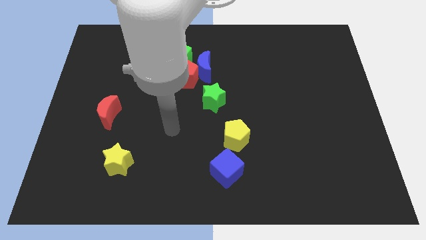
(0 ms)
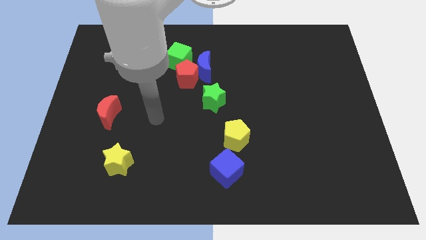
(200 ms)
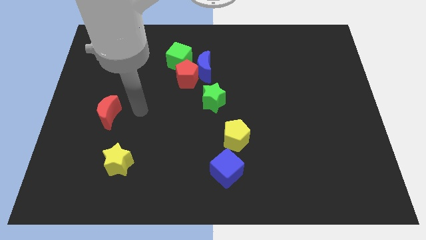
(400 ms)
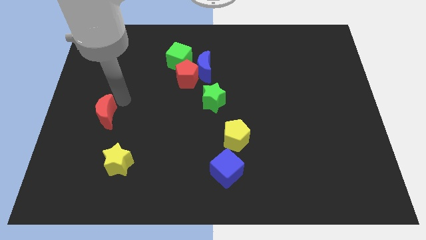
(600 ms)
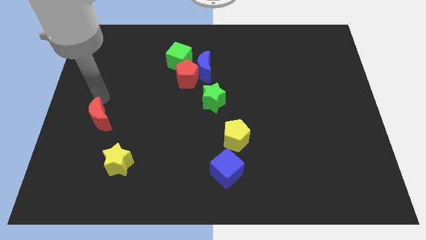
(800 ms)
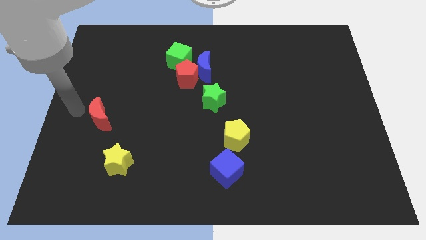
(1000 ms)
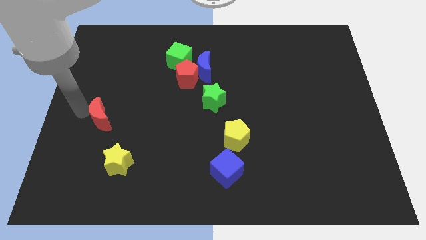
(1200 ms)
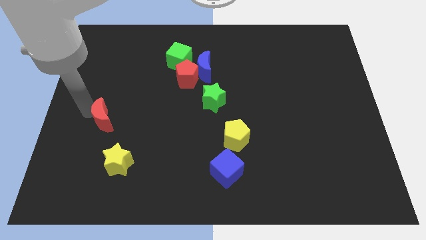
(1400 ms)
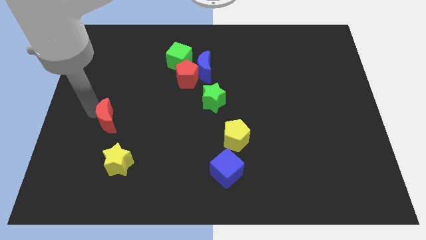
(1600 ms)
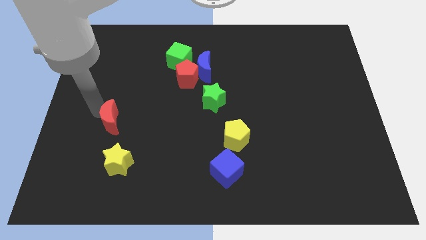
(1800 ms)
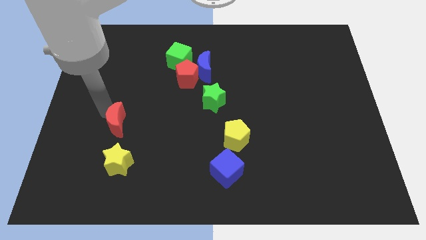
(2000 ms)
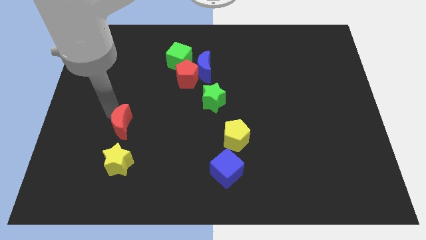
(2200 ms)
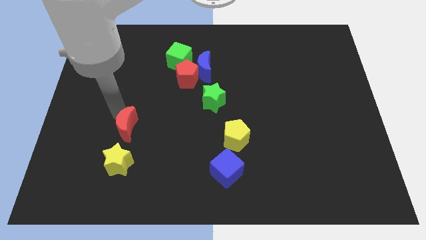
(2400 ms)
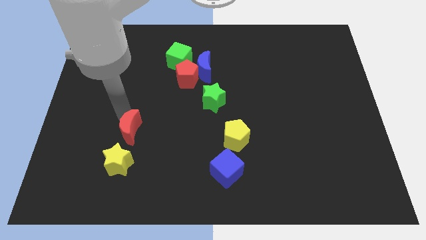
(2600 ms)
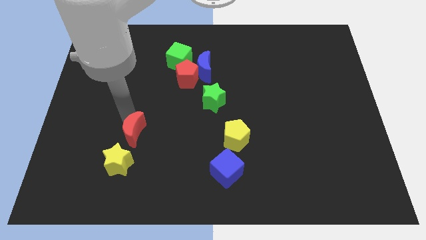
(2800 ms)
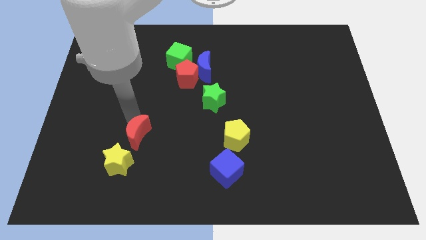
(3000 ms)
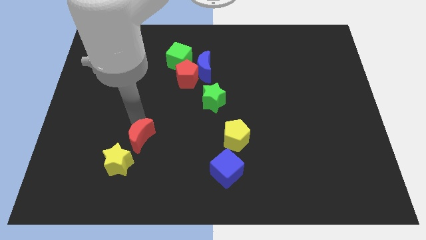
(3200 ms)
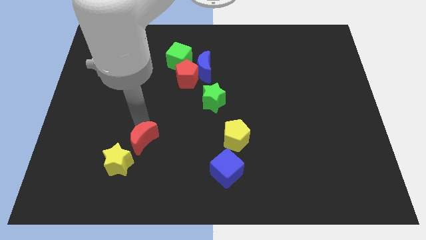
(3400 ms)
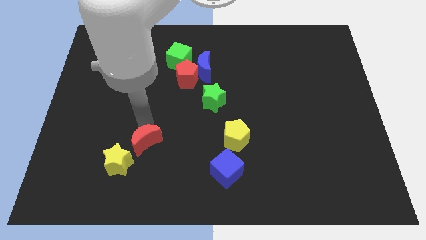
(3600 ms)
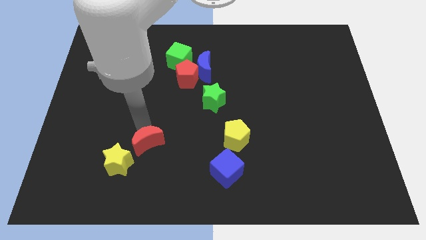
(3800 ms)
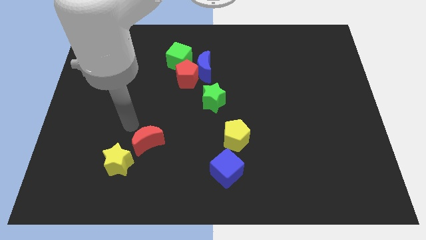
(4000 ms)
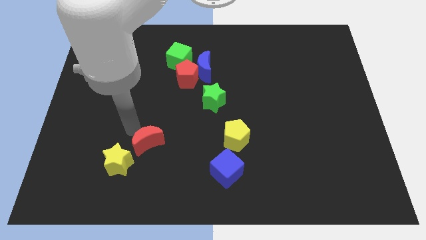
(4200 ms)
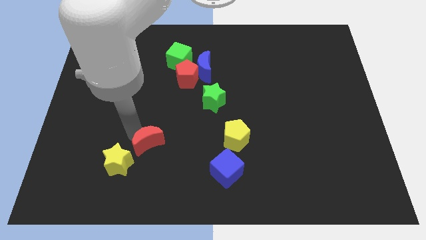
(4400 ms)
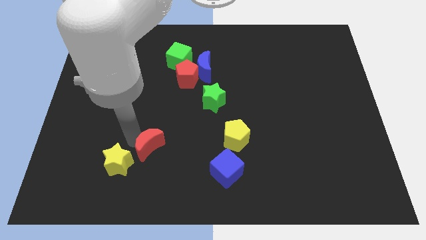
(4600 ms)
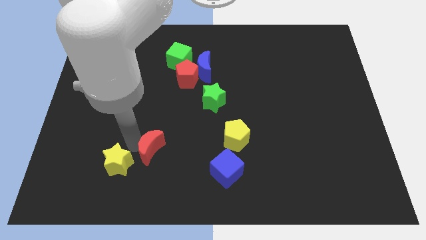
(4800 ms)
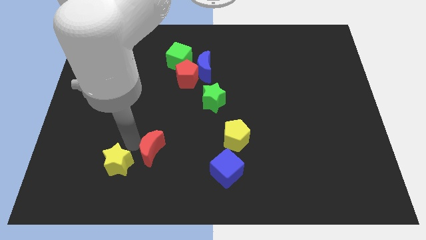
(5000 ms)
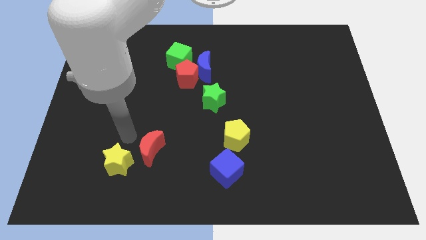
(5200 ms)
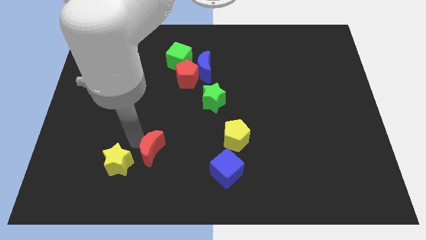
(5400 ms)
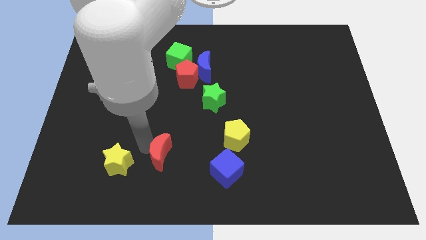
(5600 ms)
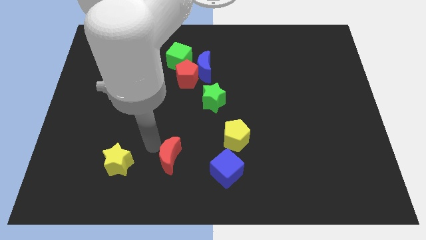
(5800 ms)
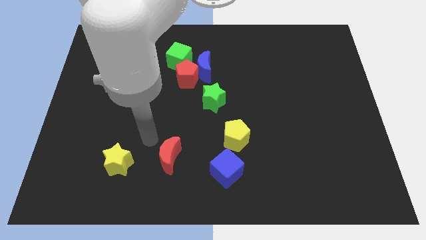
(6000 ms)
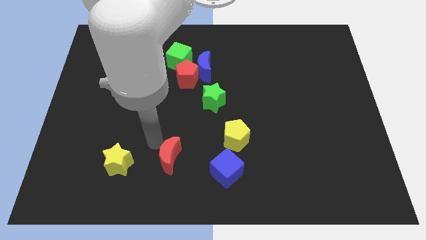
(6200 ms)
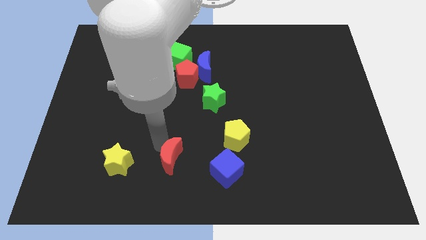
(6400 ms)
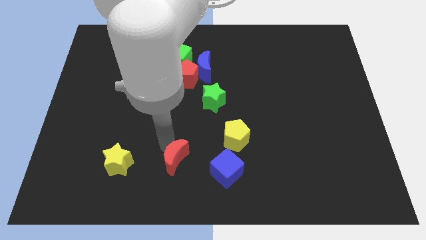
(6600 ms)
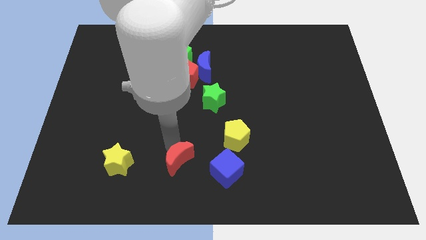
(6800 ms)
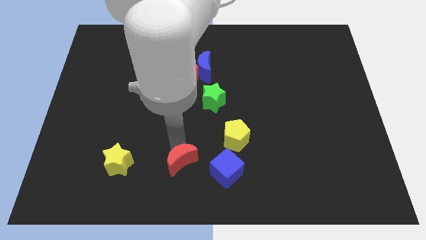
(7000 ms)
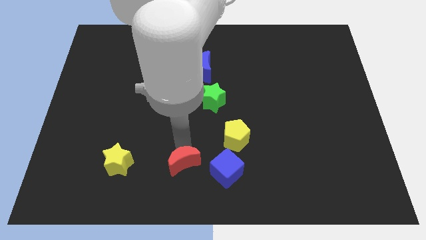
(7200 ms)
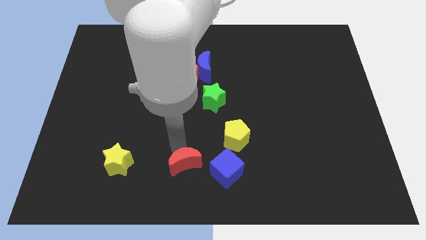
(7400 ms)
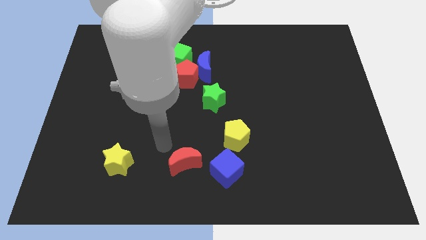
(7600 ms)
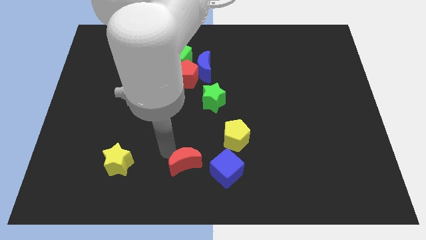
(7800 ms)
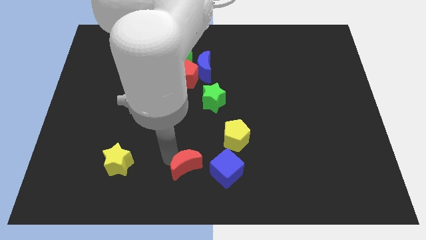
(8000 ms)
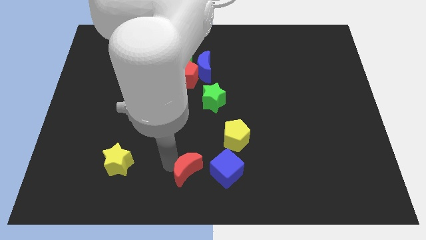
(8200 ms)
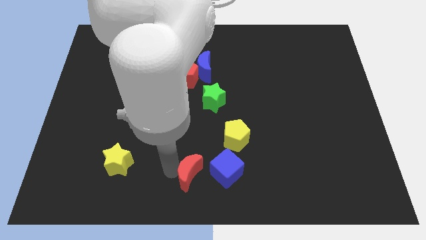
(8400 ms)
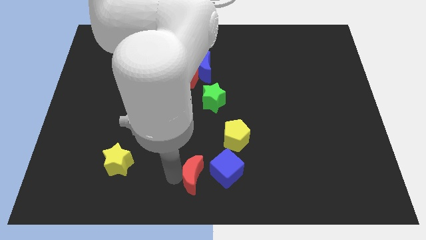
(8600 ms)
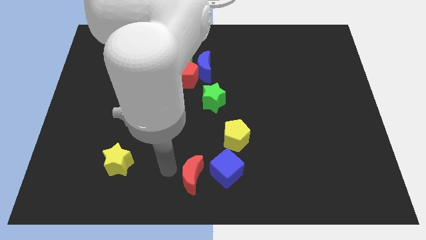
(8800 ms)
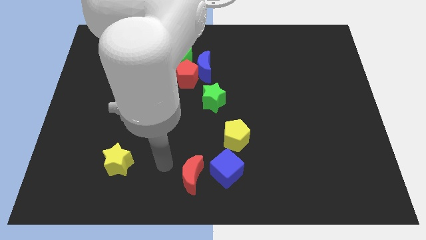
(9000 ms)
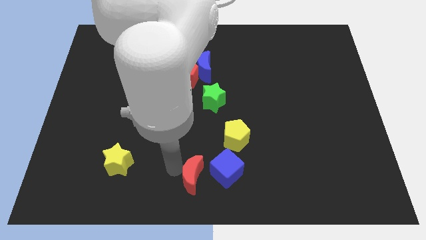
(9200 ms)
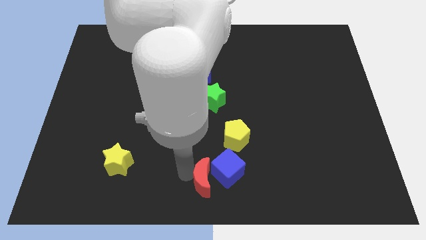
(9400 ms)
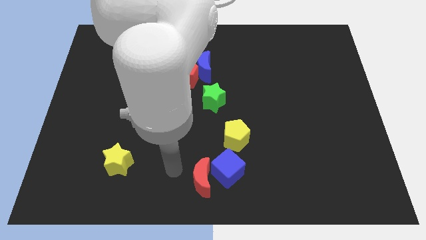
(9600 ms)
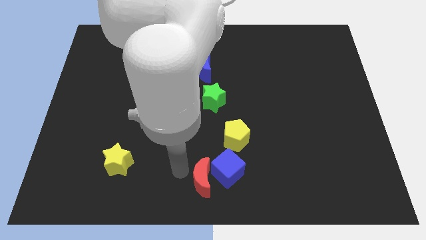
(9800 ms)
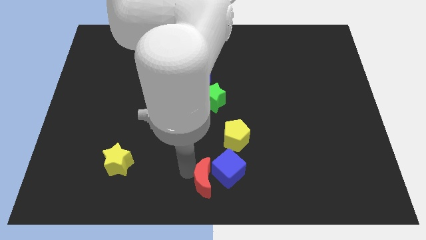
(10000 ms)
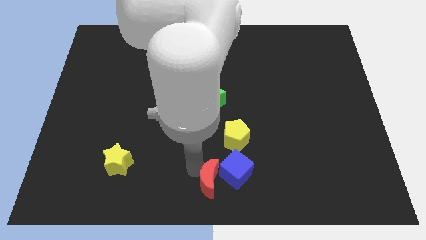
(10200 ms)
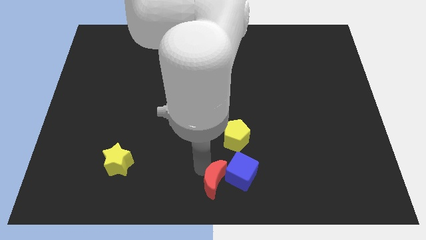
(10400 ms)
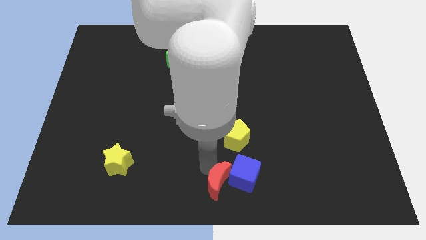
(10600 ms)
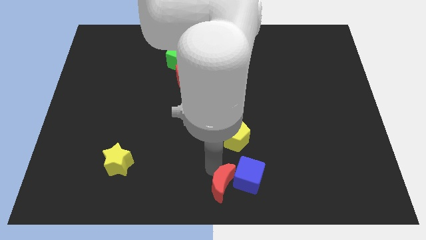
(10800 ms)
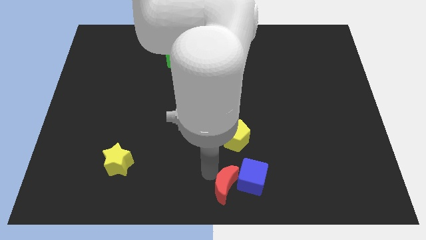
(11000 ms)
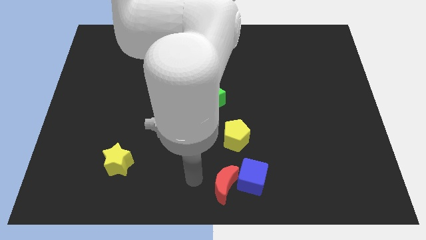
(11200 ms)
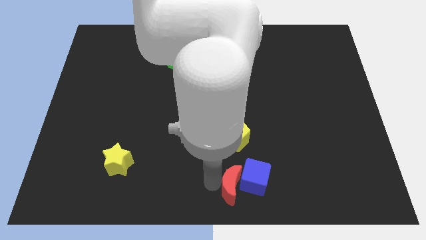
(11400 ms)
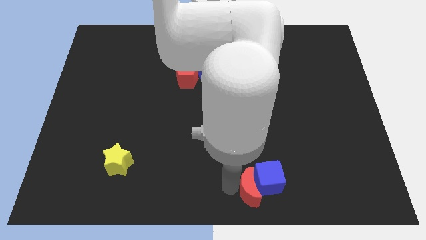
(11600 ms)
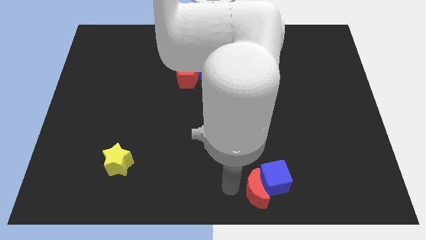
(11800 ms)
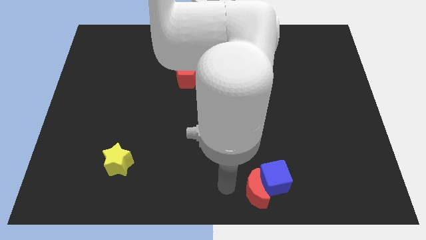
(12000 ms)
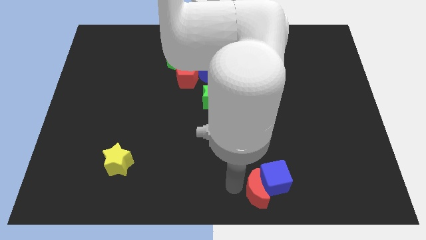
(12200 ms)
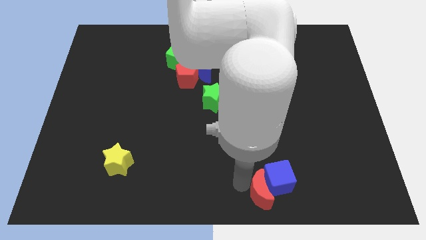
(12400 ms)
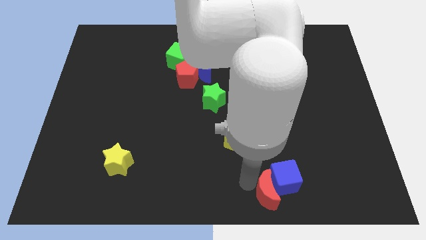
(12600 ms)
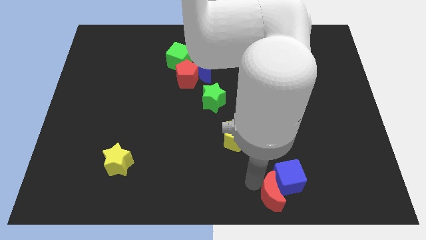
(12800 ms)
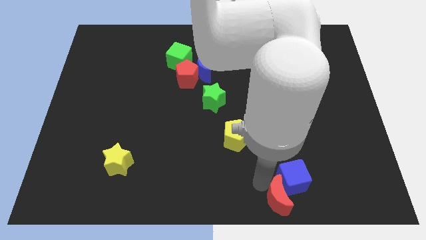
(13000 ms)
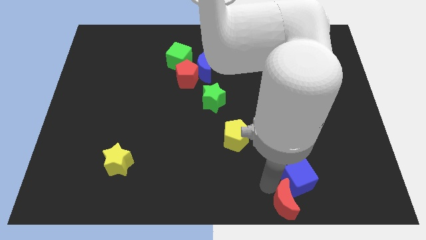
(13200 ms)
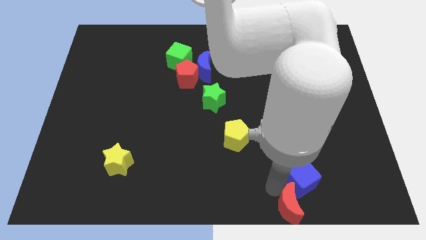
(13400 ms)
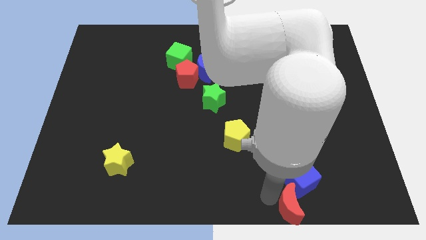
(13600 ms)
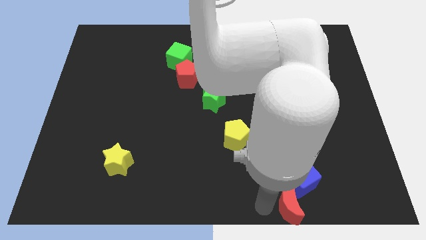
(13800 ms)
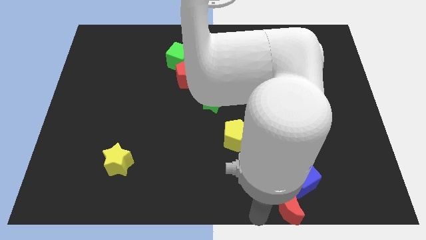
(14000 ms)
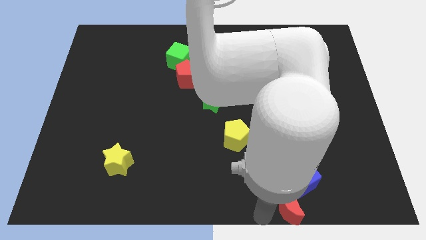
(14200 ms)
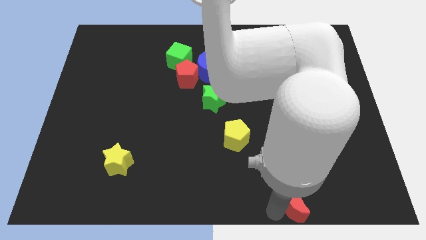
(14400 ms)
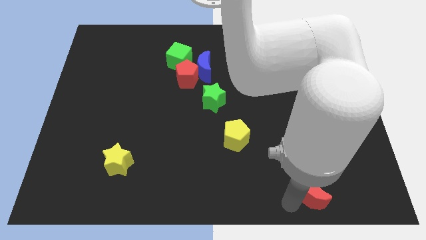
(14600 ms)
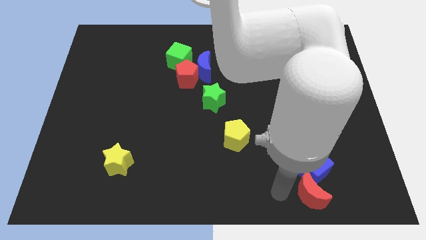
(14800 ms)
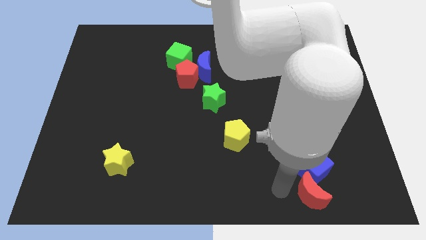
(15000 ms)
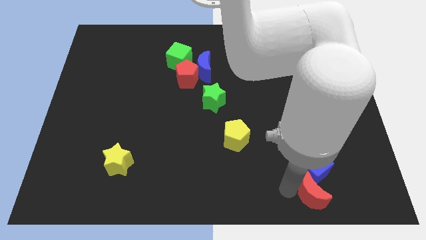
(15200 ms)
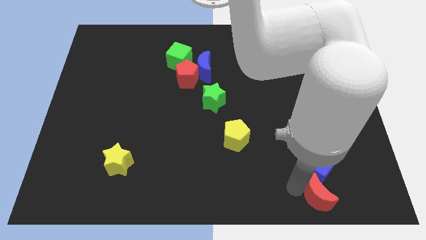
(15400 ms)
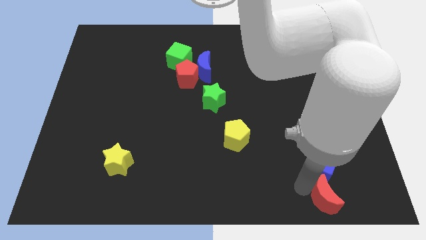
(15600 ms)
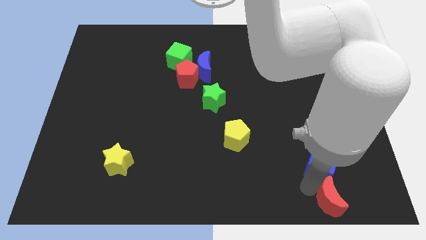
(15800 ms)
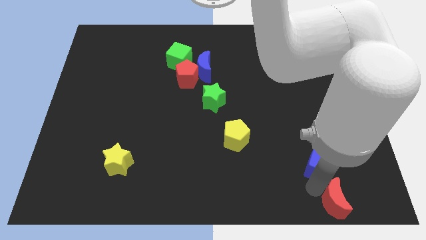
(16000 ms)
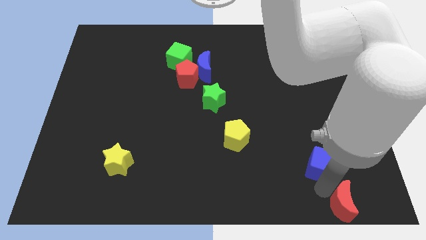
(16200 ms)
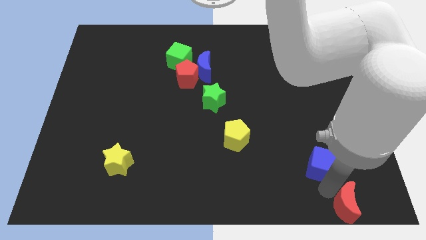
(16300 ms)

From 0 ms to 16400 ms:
put the red moon to the lower right corner
